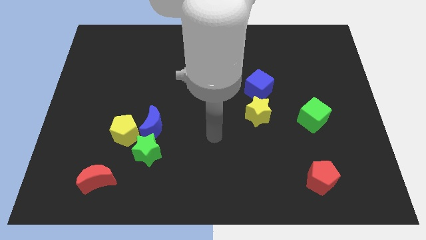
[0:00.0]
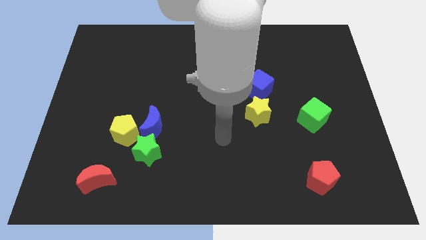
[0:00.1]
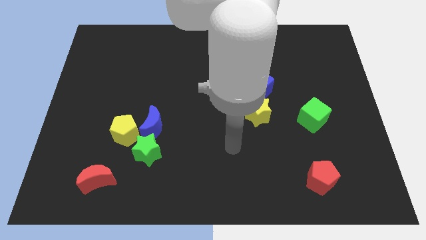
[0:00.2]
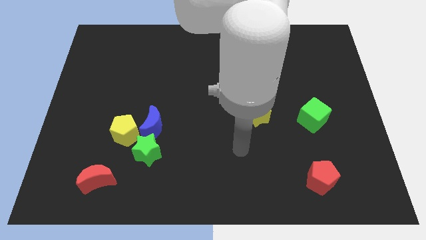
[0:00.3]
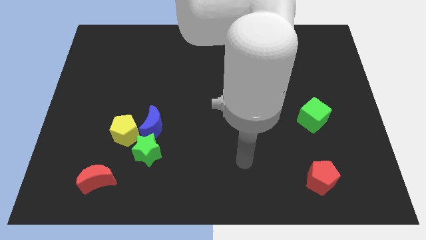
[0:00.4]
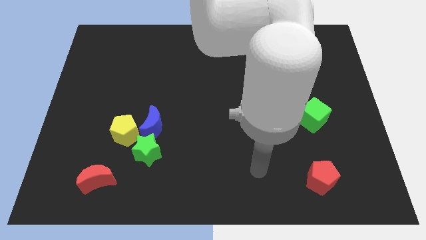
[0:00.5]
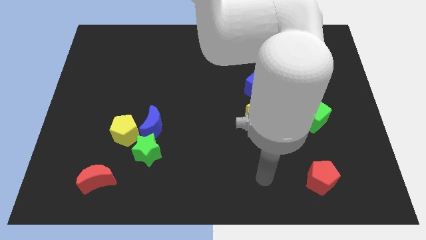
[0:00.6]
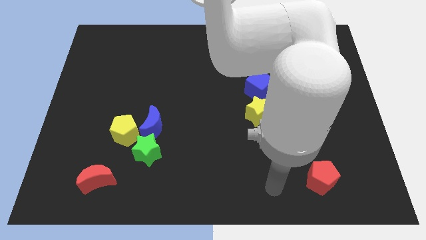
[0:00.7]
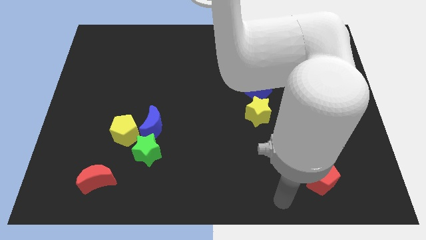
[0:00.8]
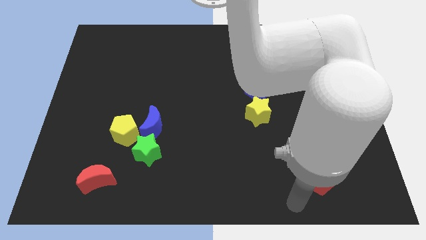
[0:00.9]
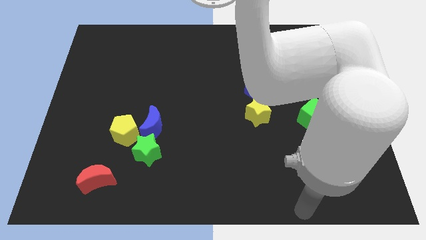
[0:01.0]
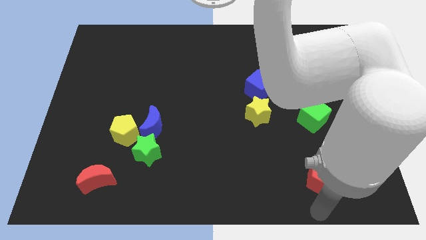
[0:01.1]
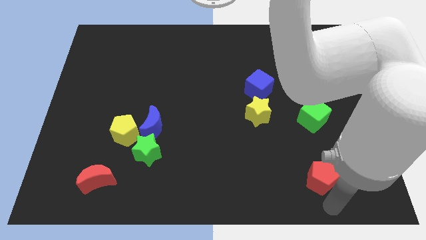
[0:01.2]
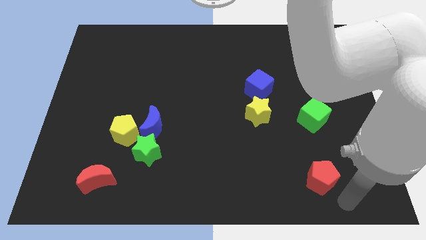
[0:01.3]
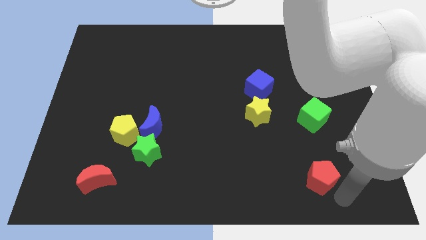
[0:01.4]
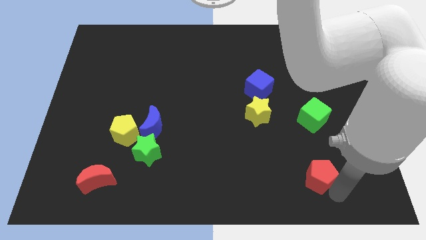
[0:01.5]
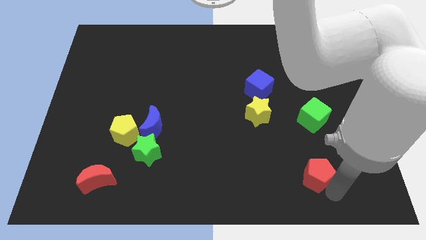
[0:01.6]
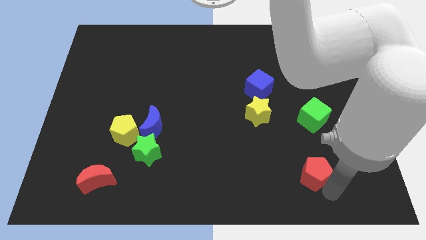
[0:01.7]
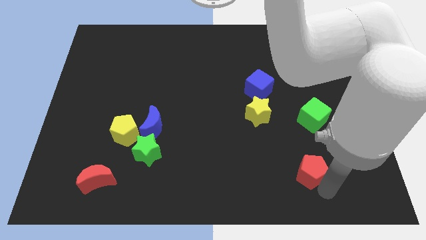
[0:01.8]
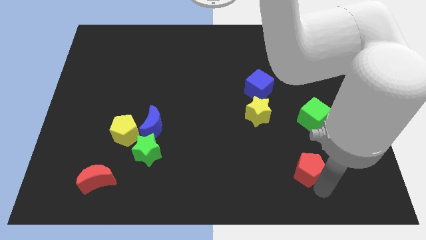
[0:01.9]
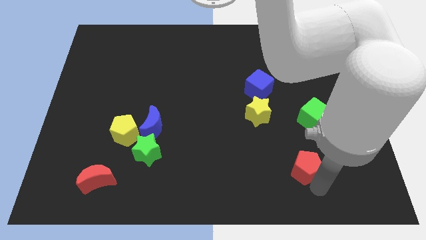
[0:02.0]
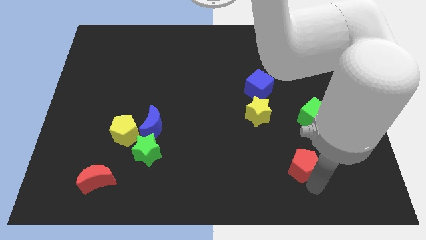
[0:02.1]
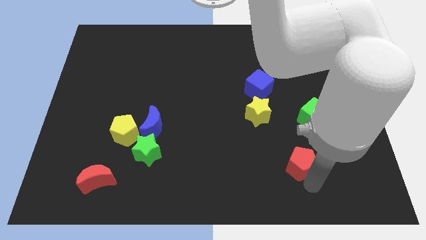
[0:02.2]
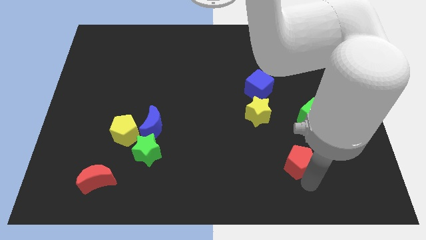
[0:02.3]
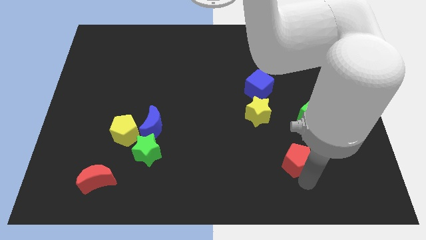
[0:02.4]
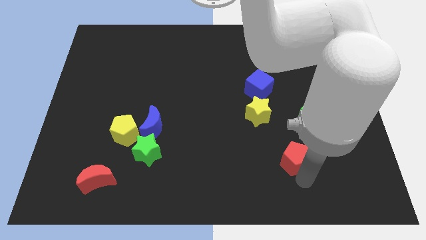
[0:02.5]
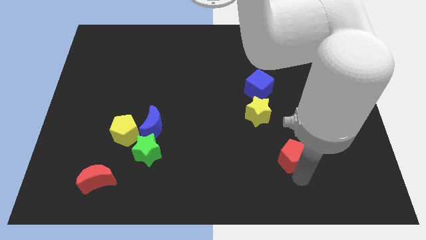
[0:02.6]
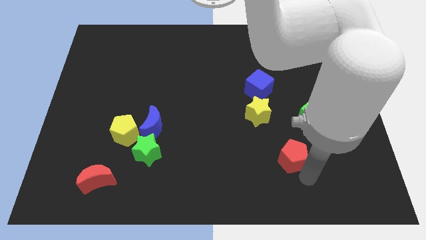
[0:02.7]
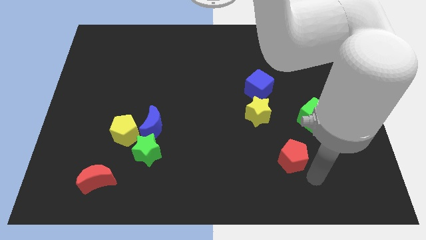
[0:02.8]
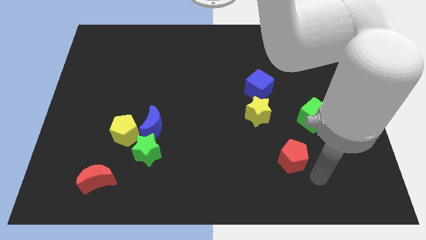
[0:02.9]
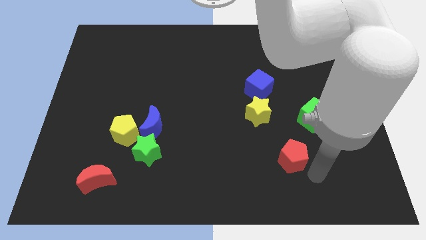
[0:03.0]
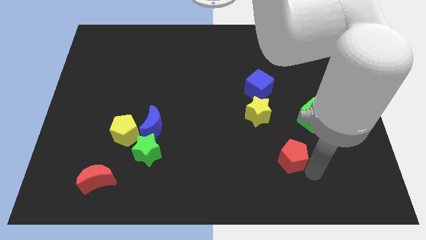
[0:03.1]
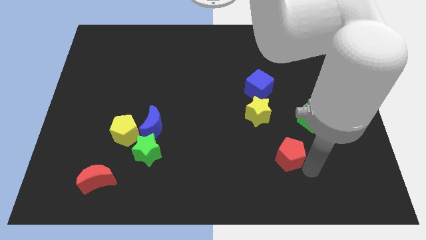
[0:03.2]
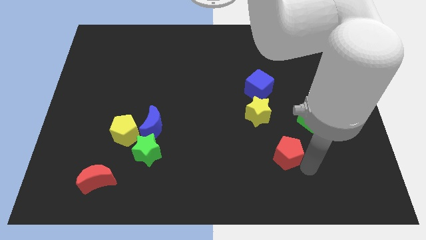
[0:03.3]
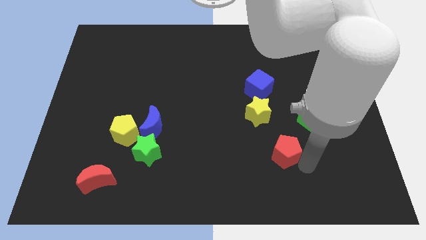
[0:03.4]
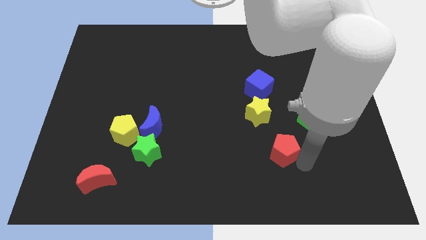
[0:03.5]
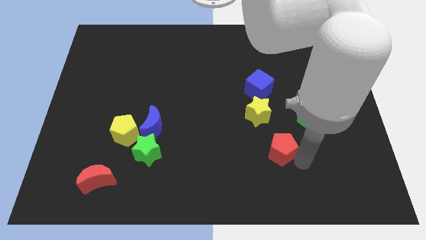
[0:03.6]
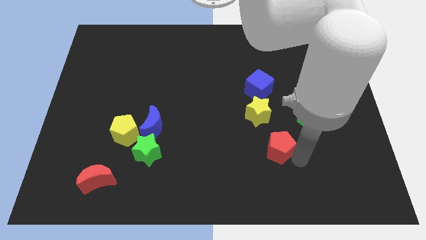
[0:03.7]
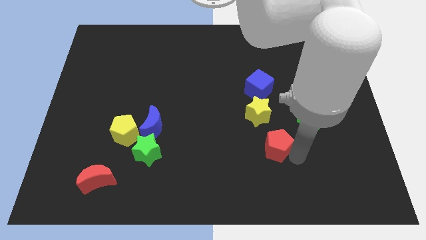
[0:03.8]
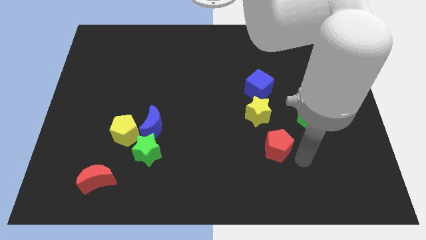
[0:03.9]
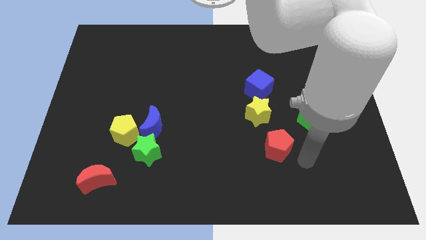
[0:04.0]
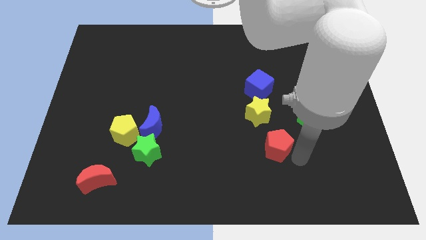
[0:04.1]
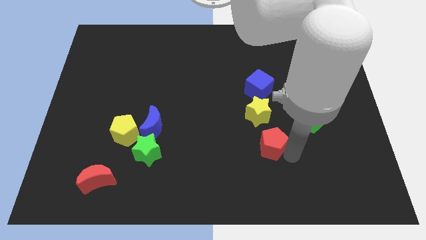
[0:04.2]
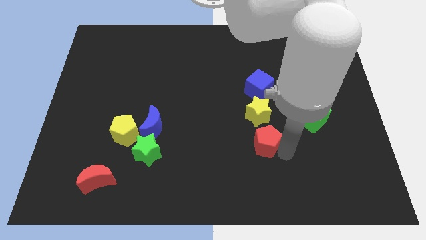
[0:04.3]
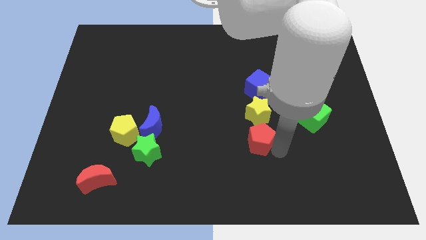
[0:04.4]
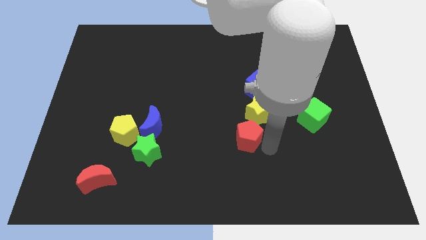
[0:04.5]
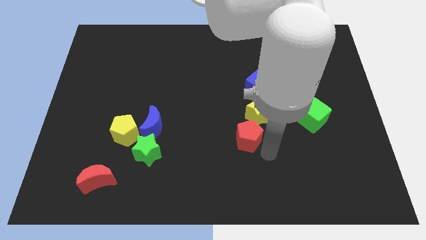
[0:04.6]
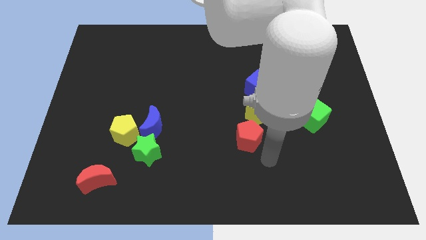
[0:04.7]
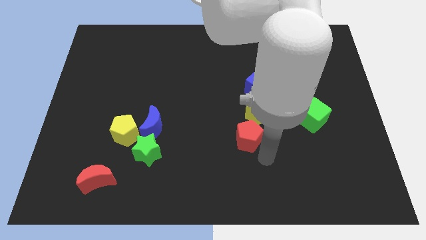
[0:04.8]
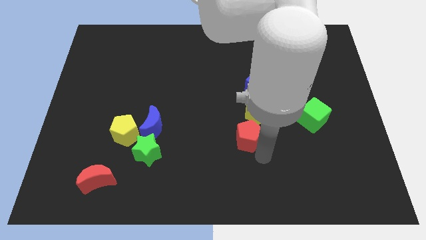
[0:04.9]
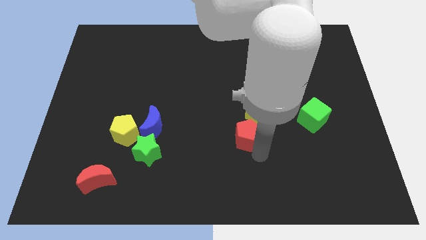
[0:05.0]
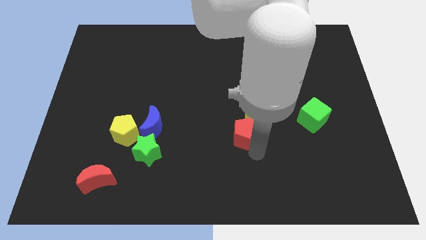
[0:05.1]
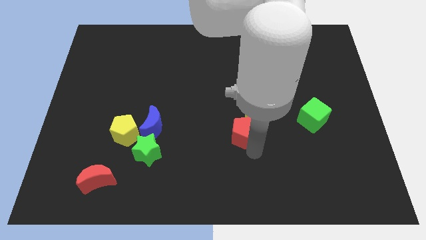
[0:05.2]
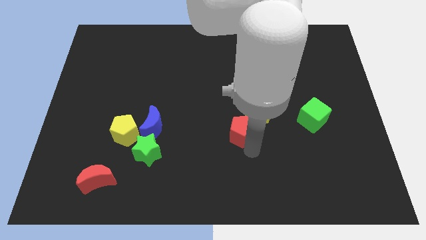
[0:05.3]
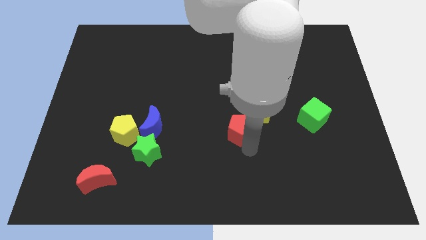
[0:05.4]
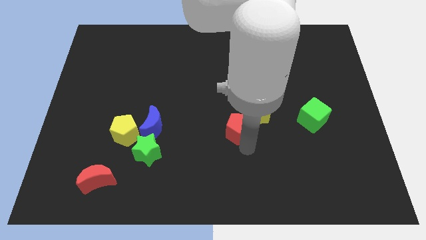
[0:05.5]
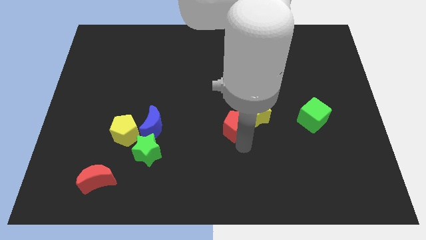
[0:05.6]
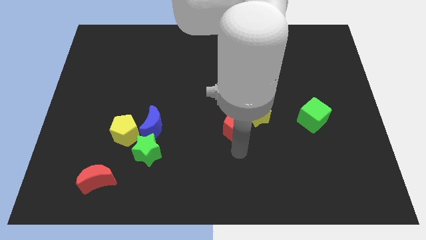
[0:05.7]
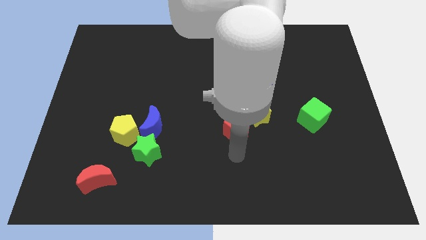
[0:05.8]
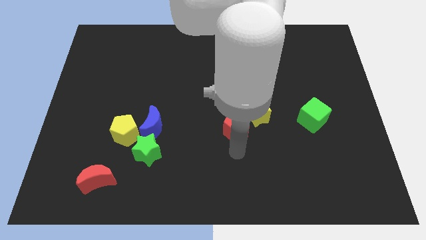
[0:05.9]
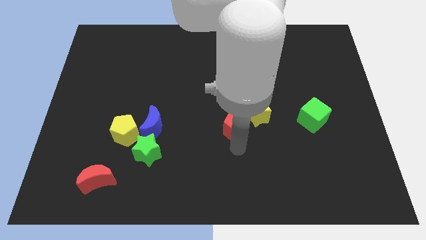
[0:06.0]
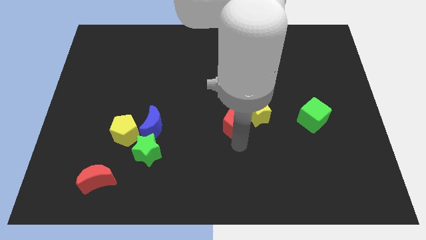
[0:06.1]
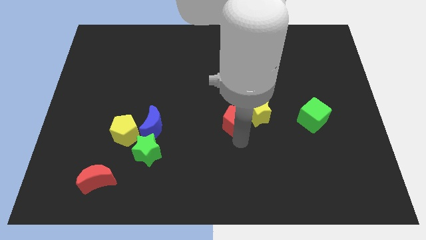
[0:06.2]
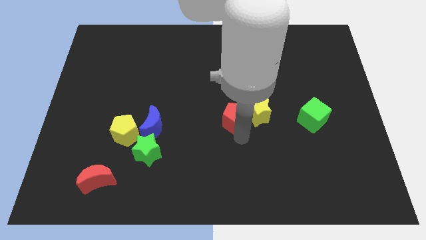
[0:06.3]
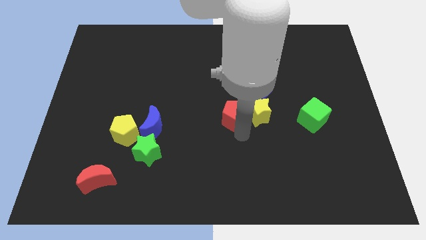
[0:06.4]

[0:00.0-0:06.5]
push the red pentagon to the top left of the yellow star
